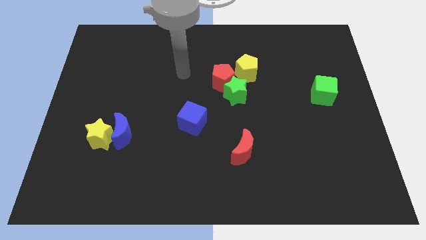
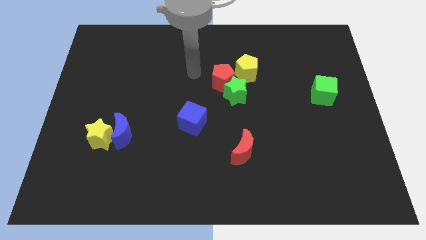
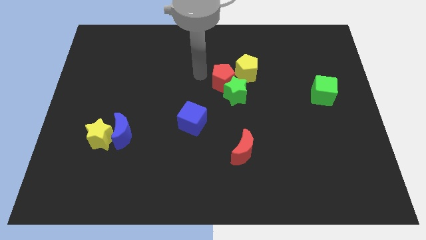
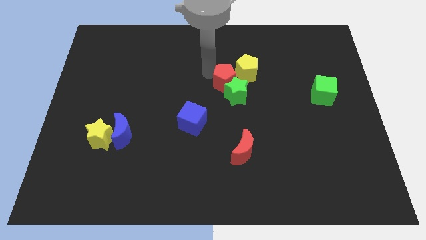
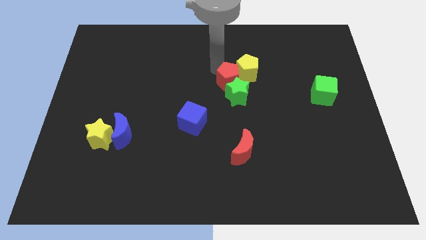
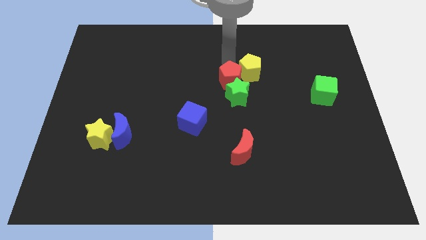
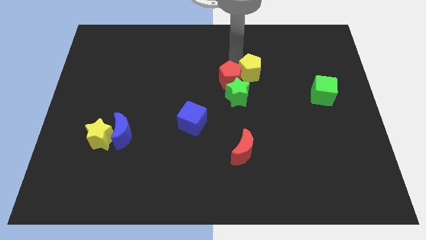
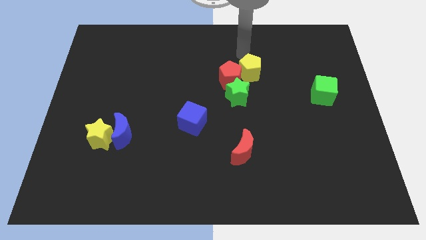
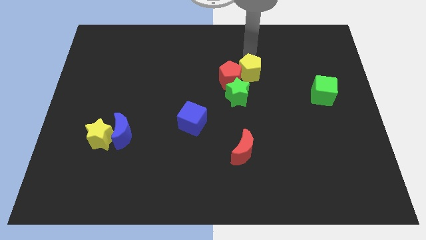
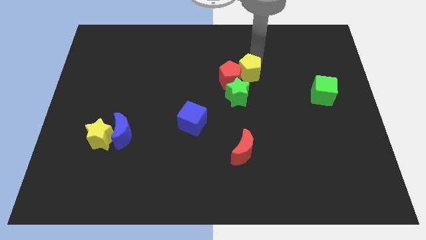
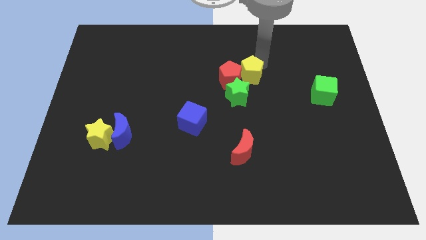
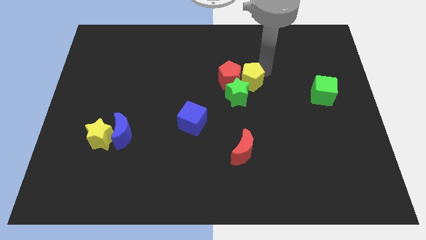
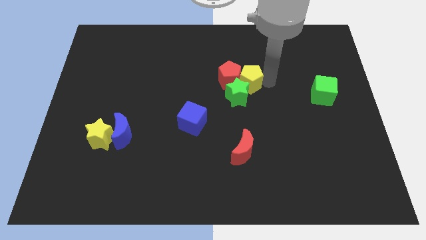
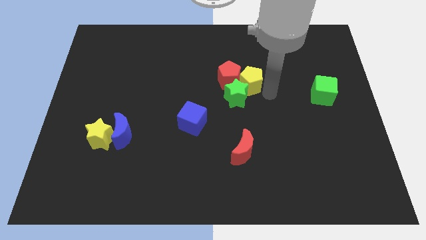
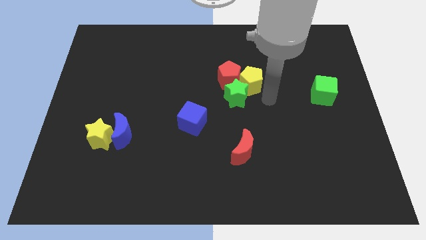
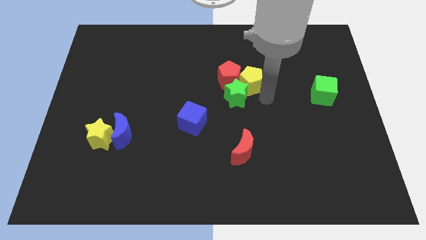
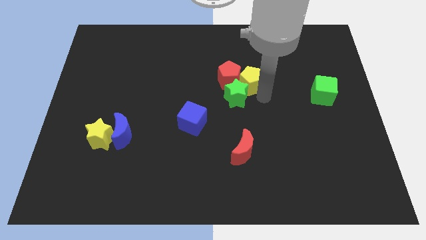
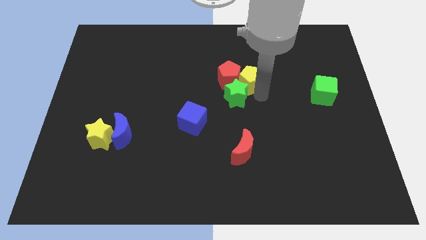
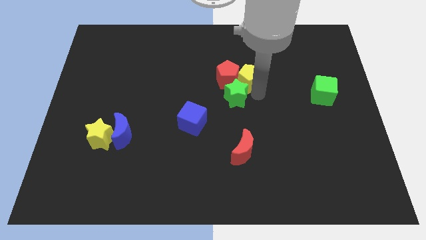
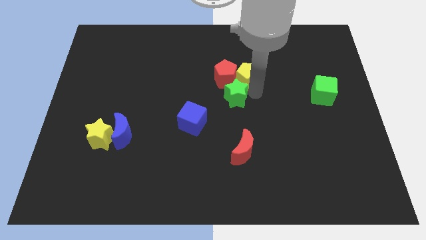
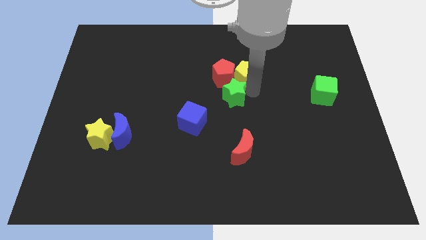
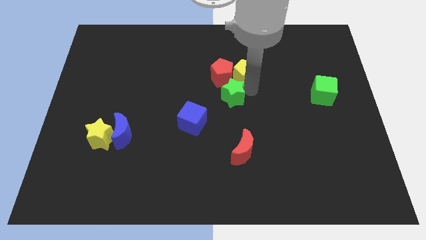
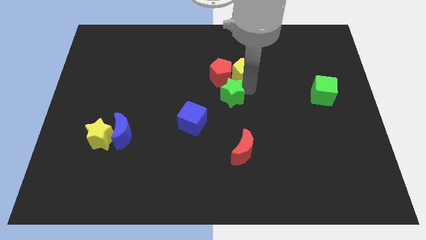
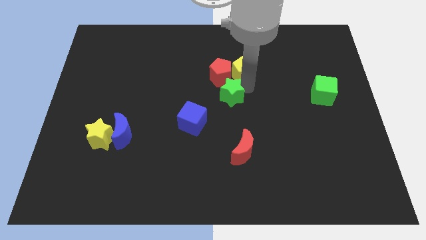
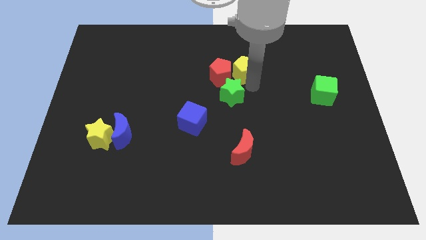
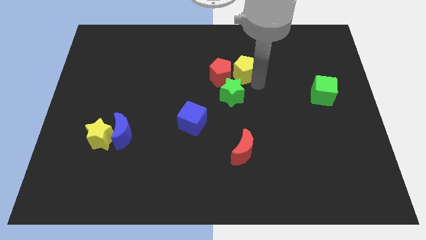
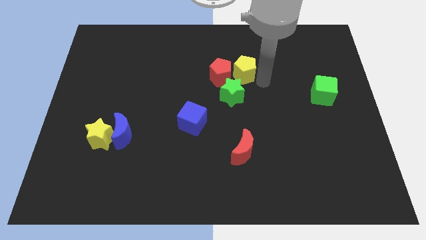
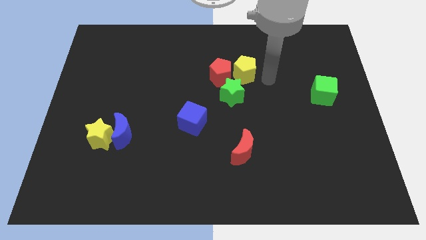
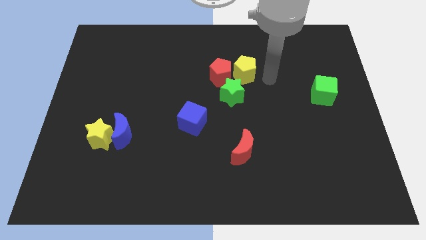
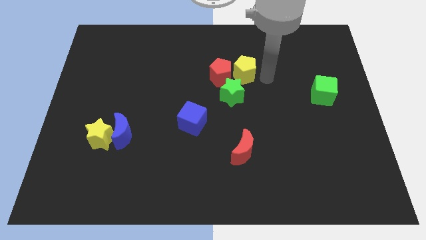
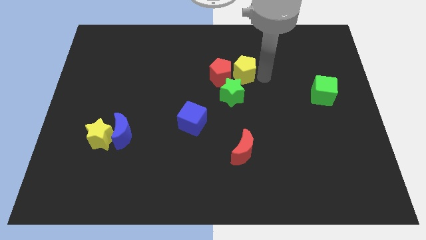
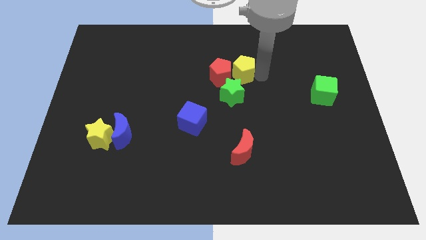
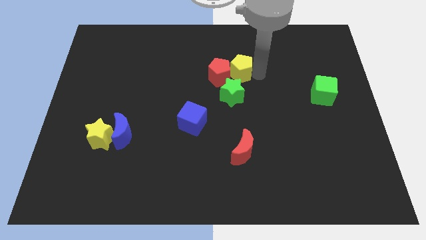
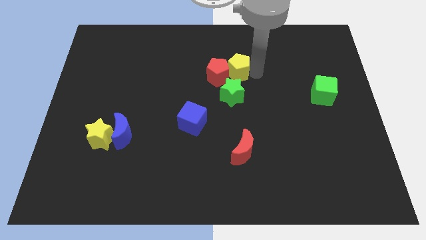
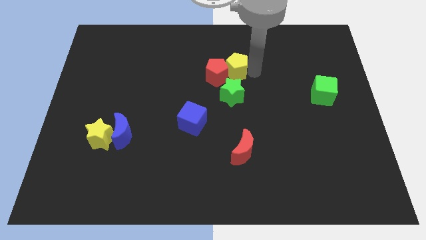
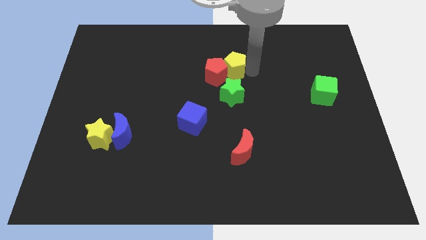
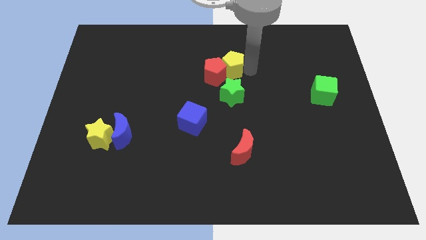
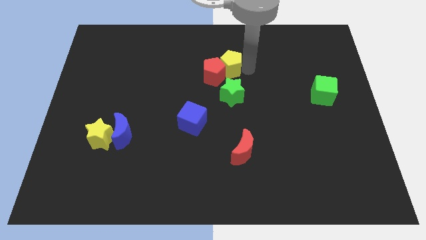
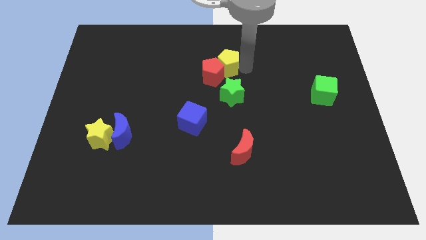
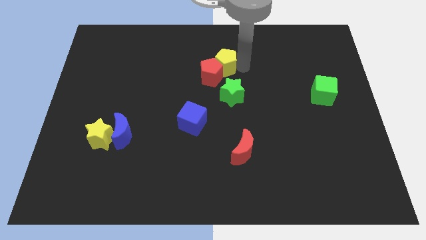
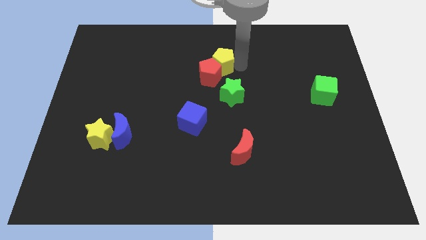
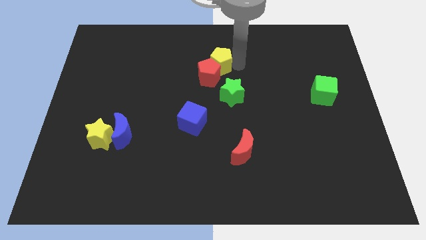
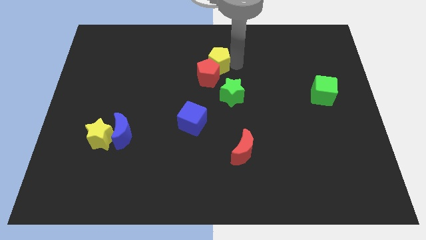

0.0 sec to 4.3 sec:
move the yellow pentagon a little to the left

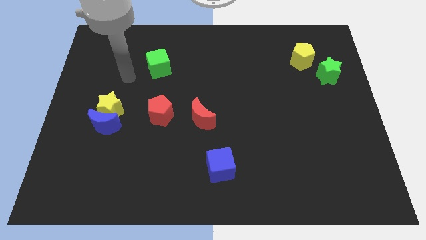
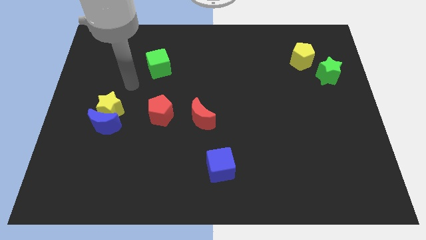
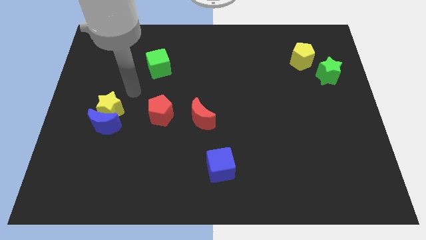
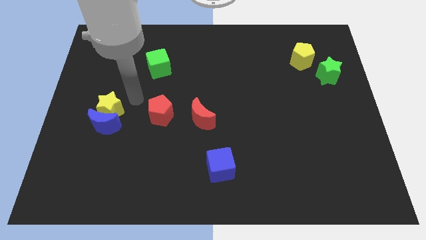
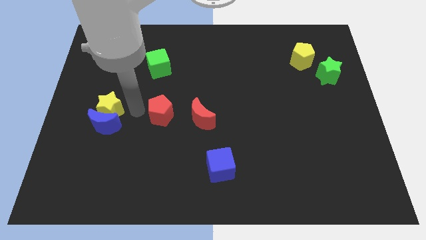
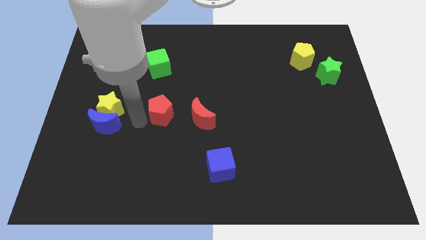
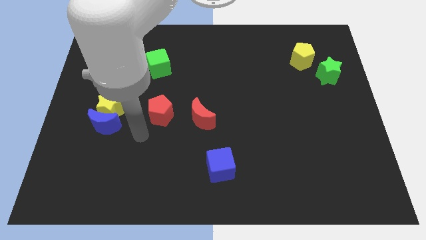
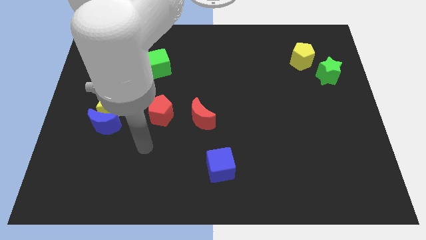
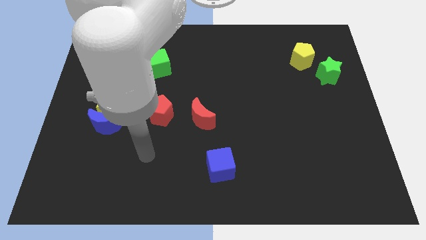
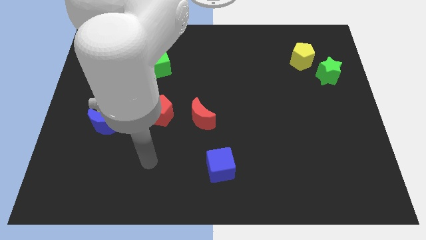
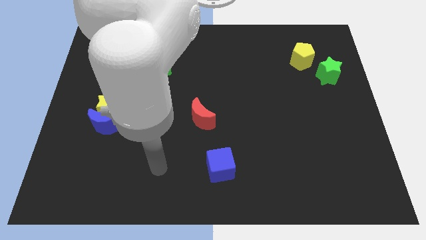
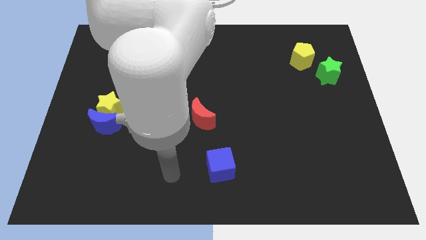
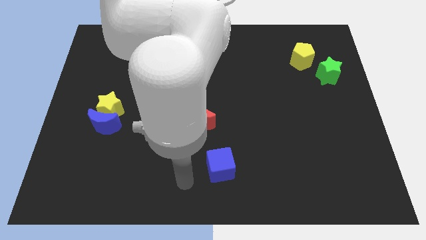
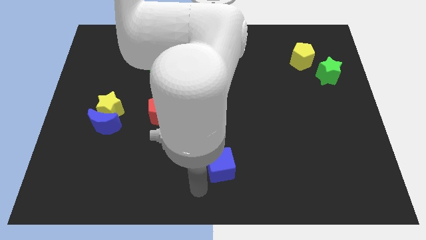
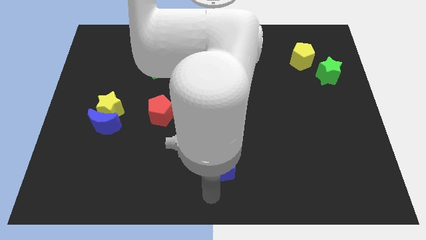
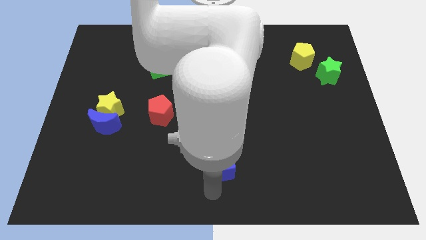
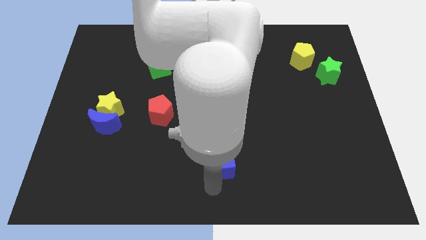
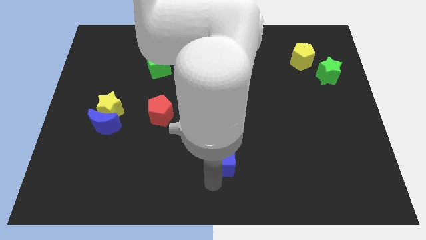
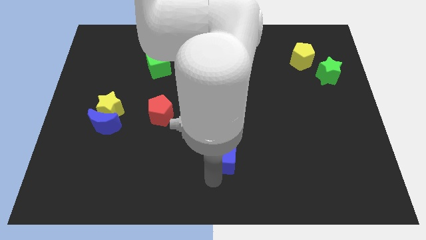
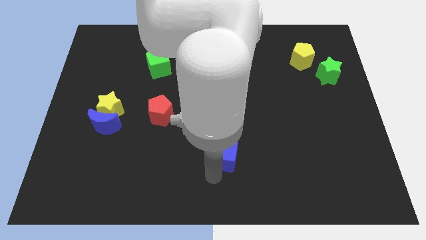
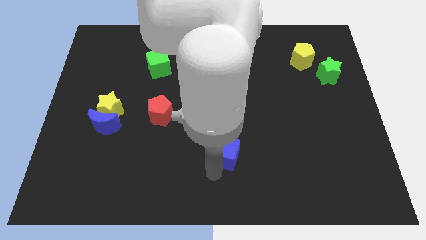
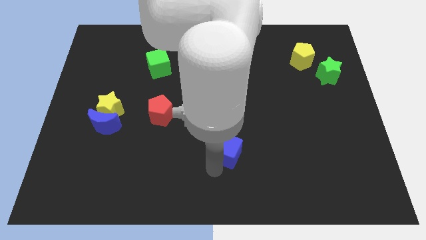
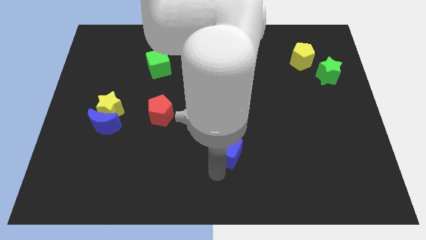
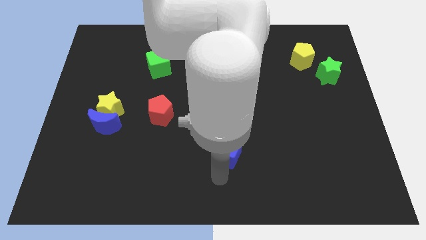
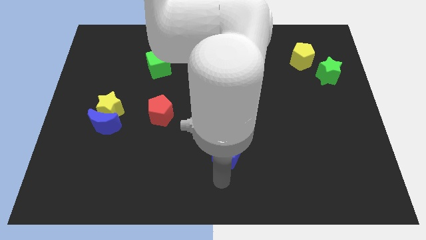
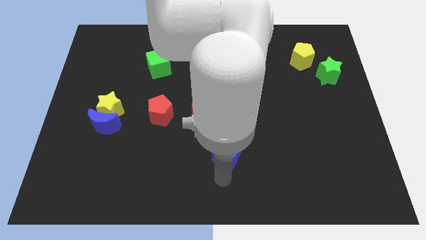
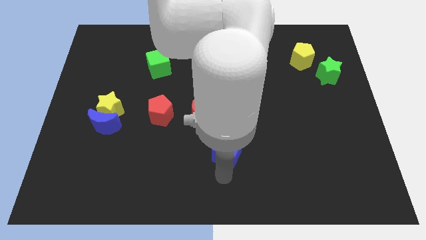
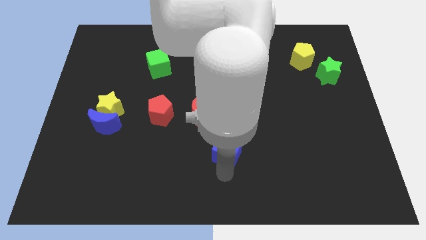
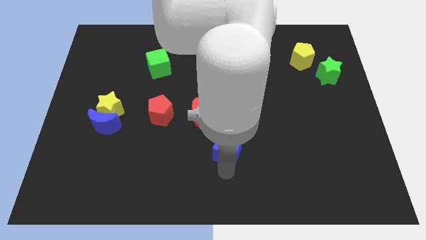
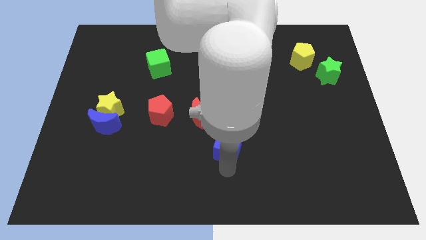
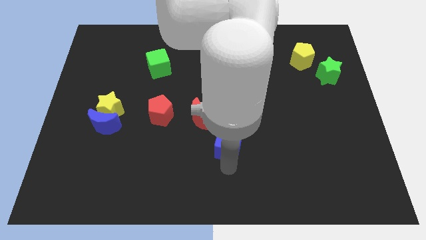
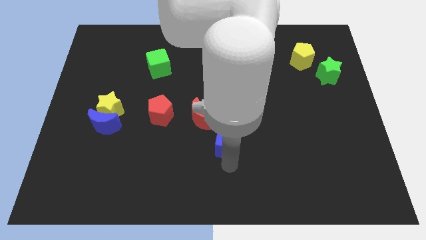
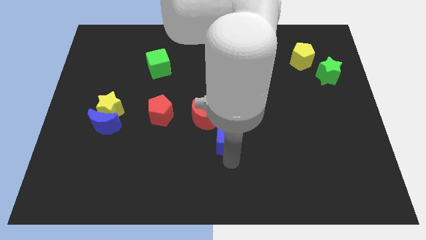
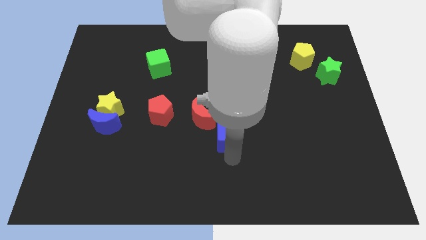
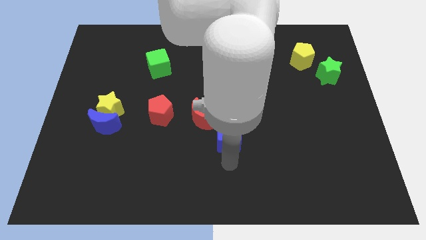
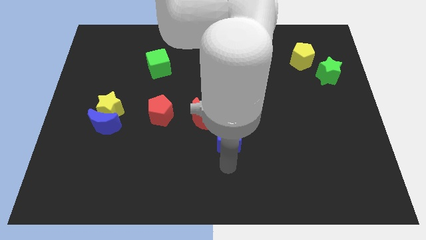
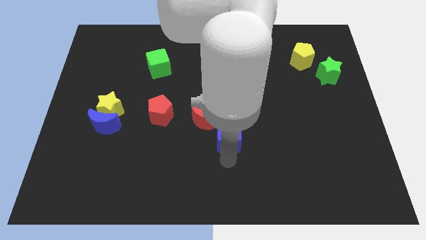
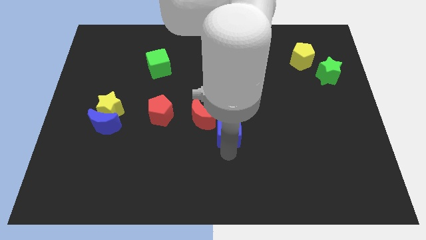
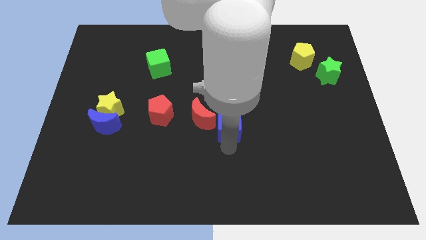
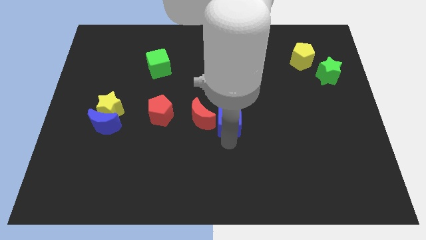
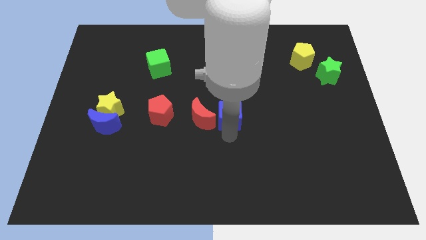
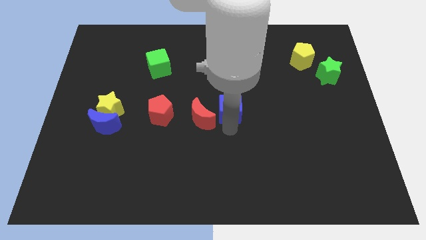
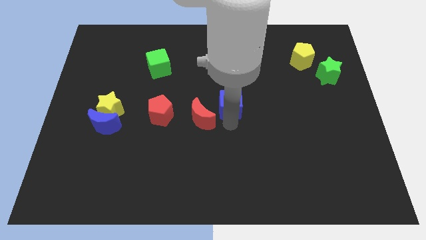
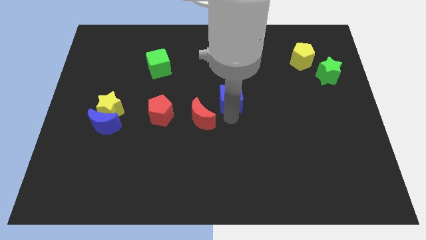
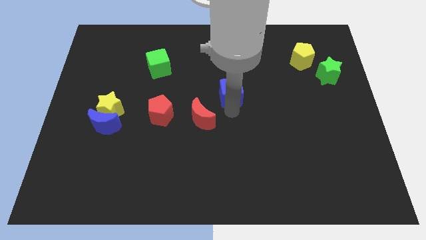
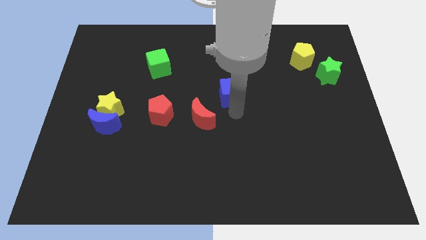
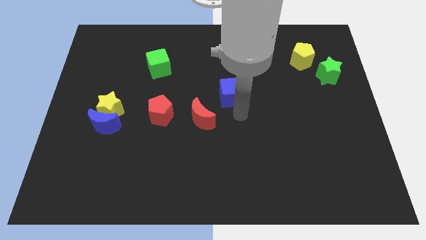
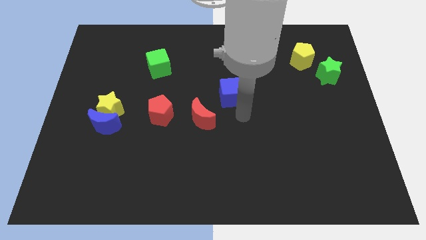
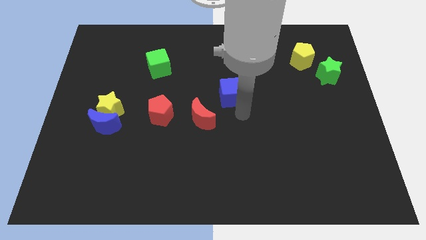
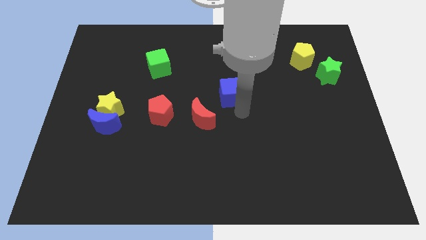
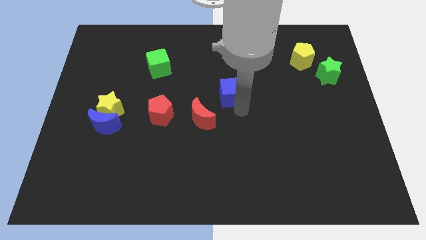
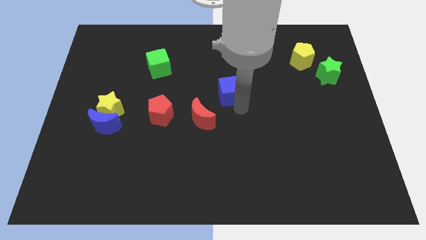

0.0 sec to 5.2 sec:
move the blue cube up
